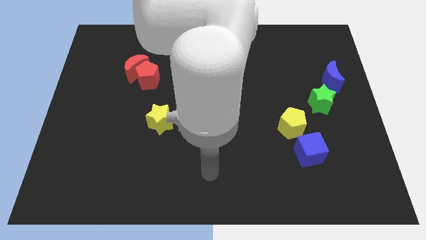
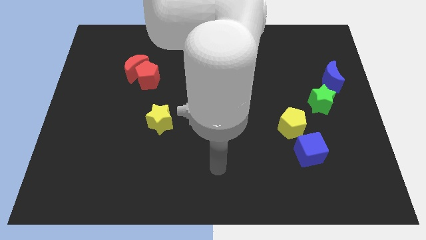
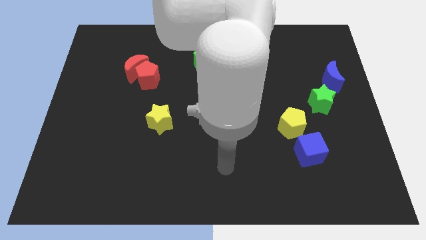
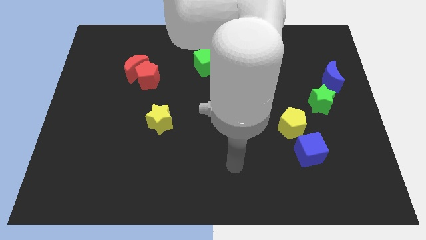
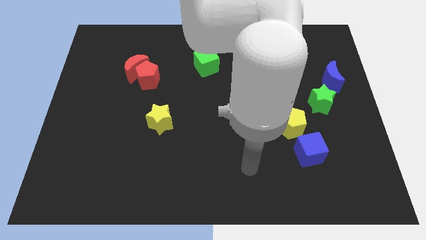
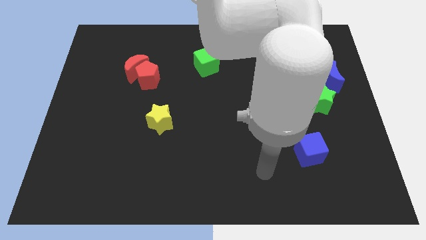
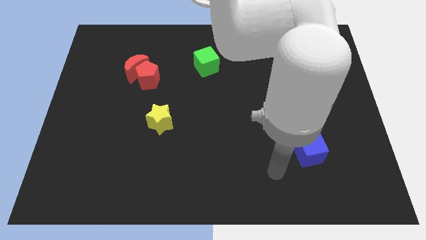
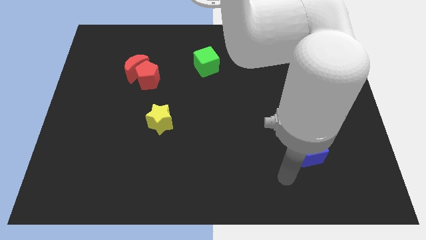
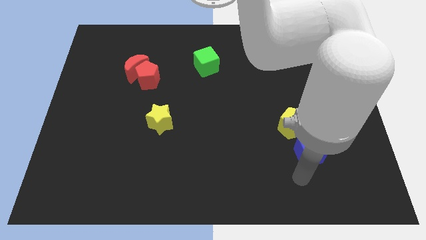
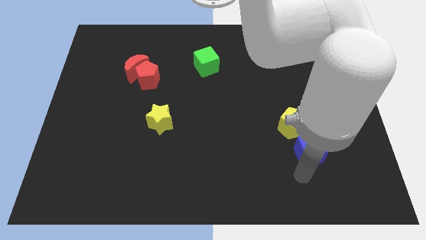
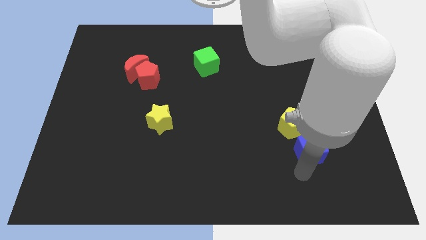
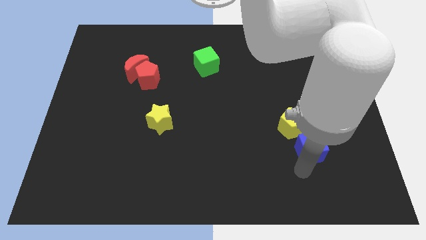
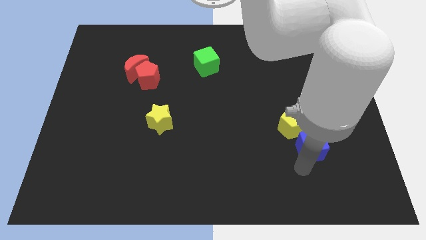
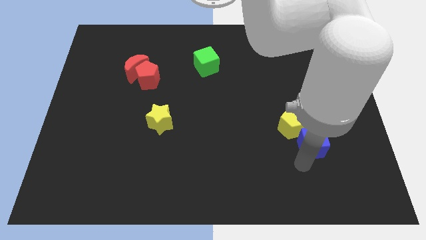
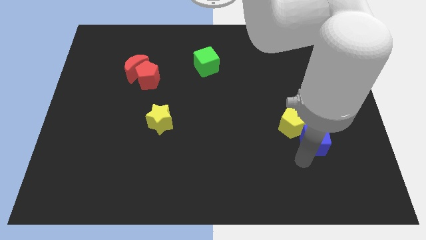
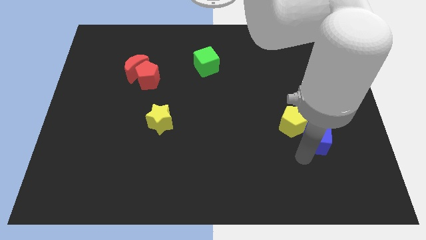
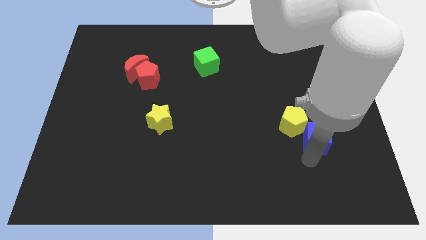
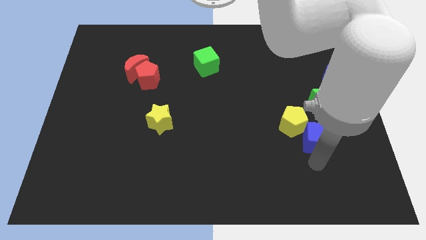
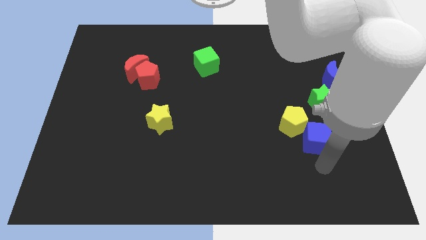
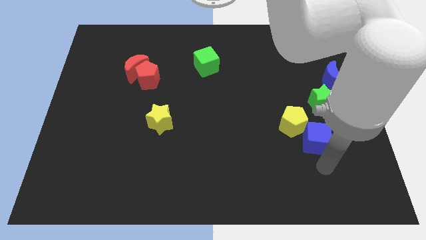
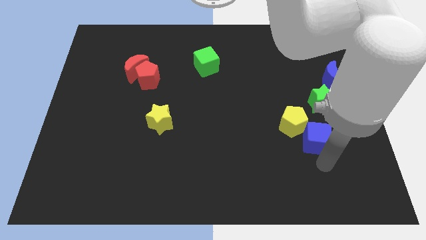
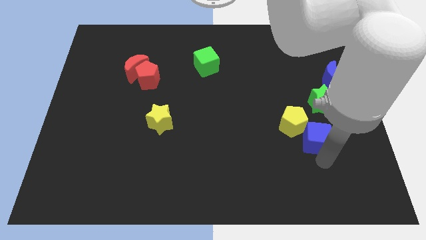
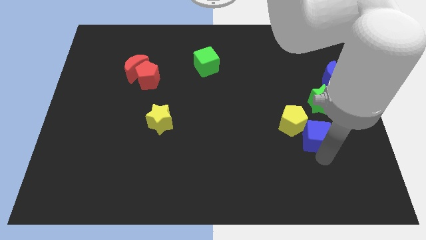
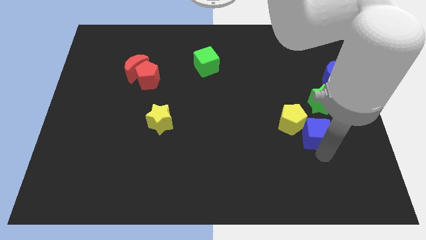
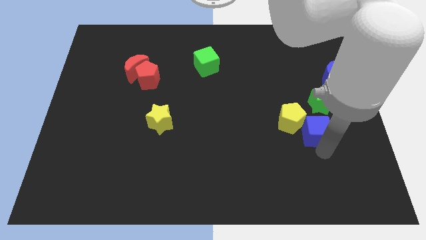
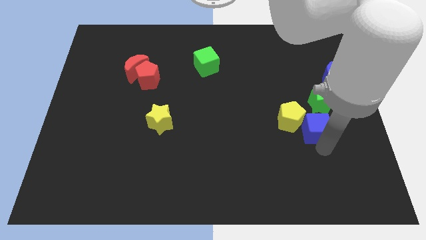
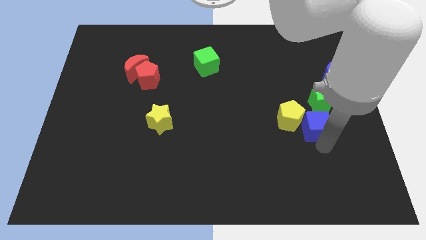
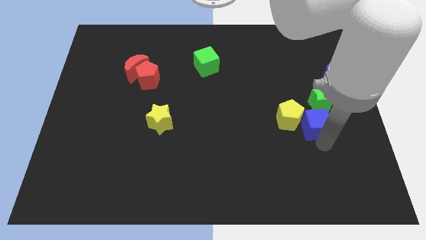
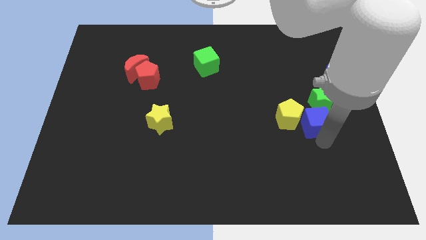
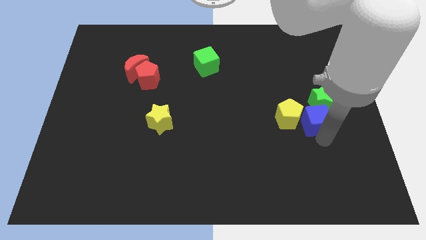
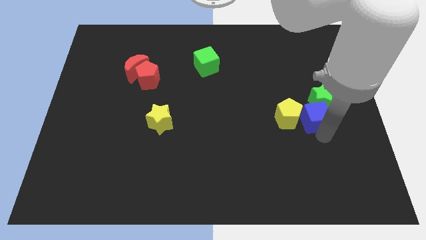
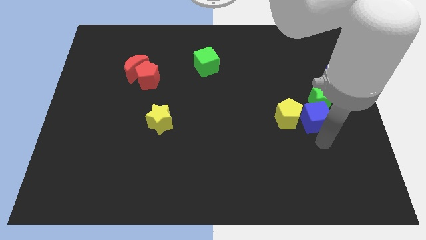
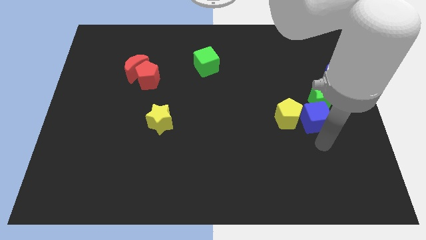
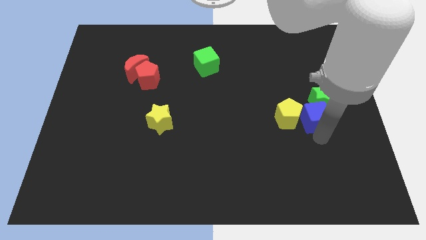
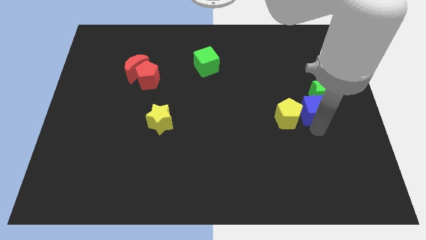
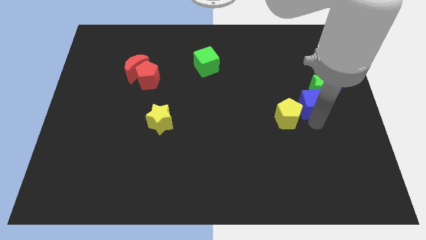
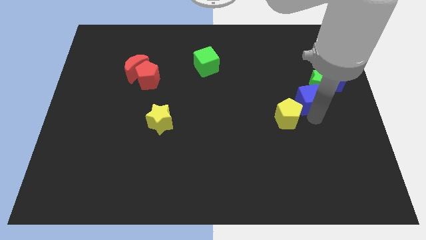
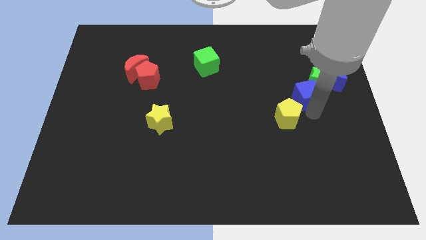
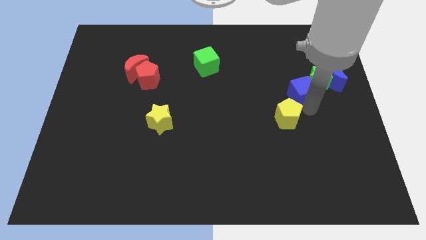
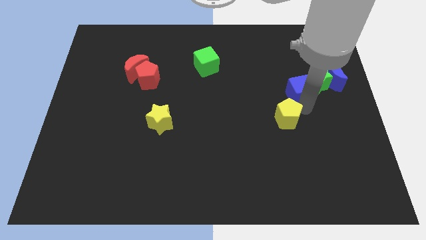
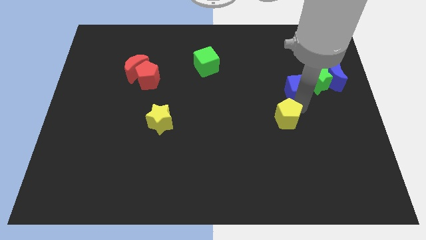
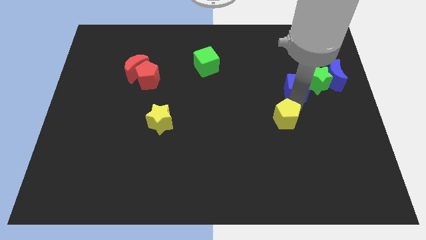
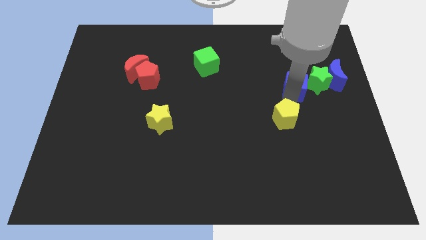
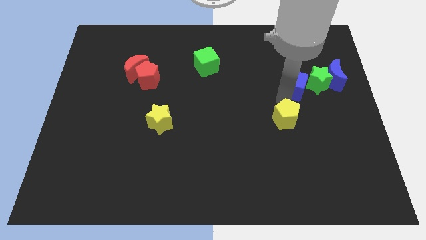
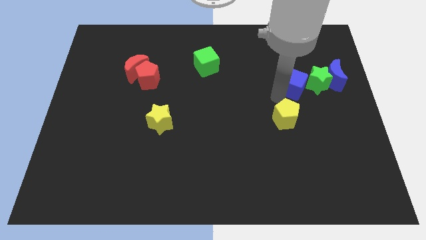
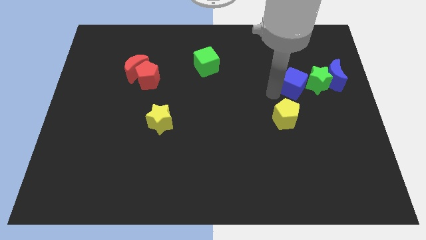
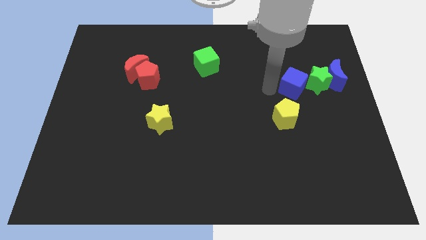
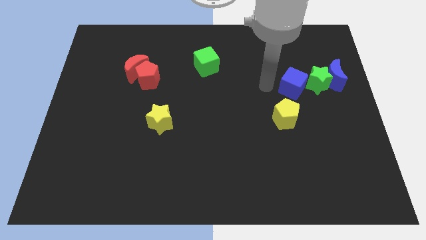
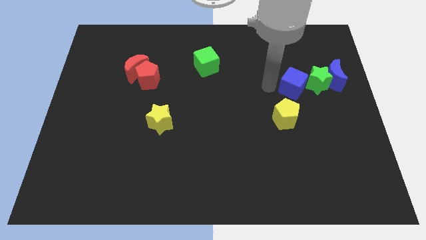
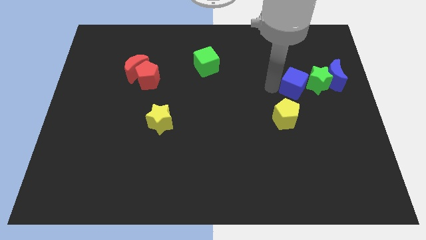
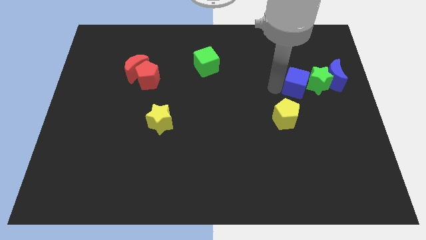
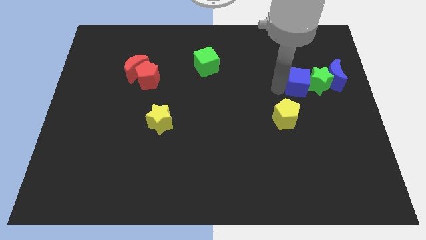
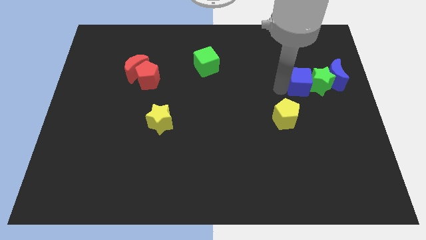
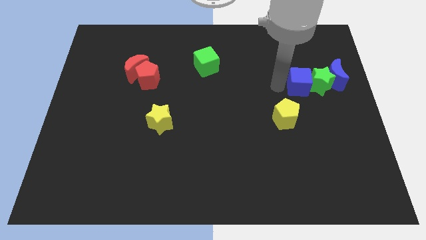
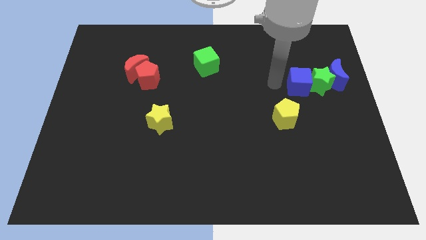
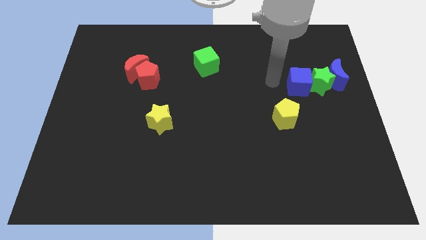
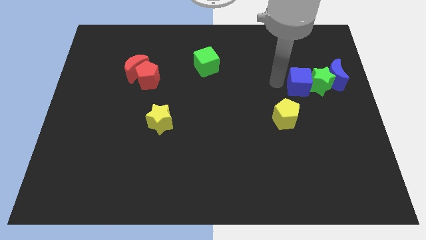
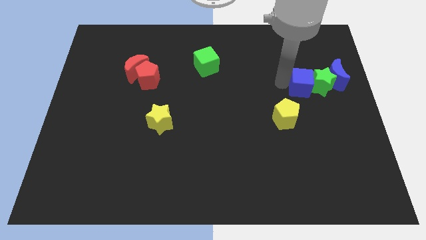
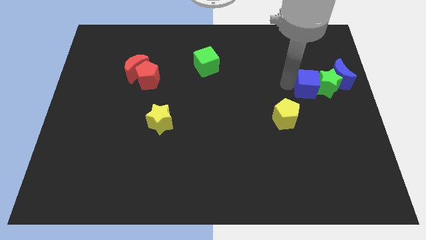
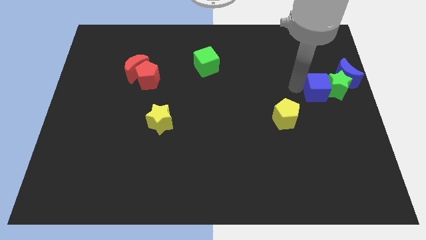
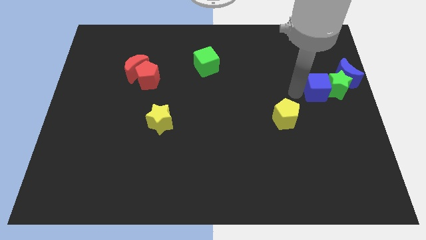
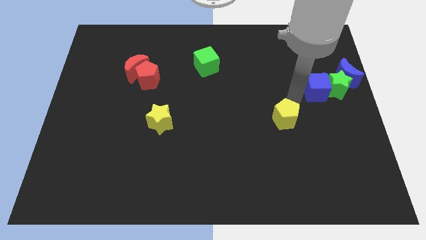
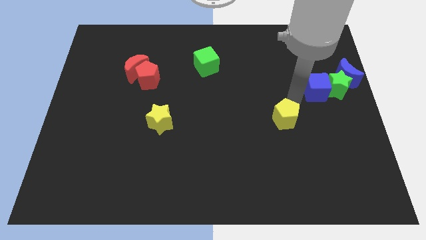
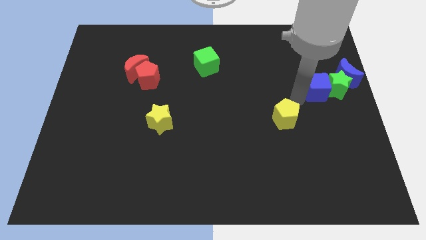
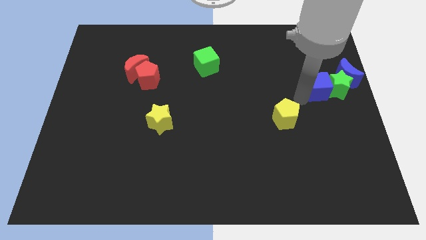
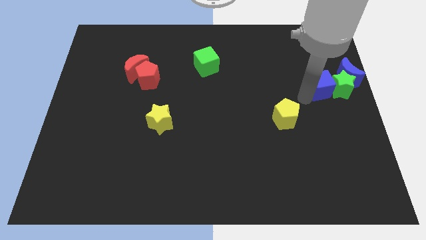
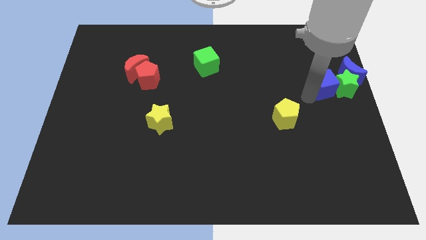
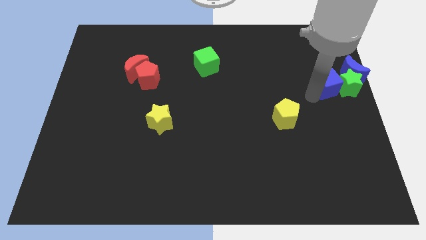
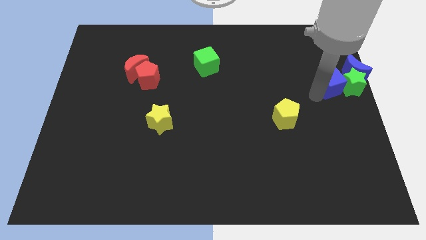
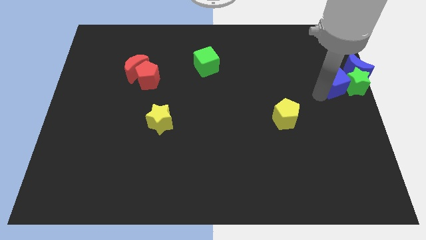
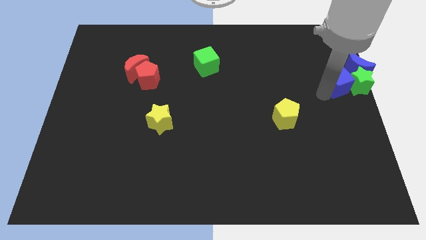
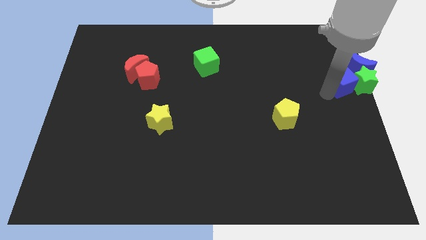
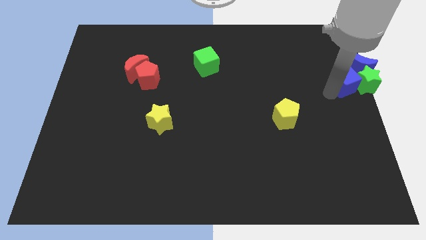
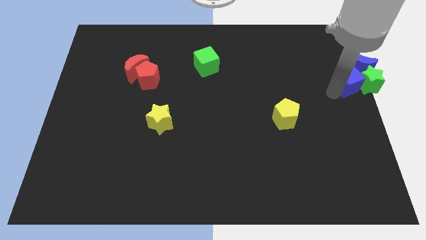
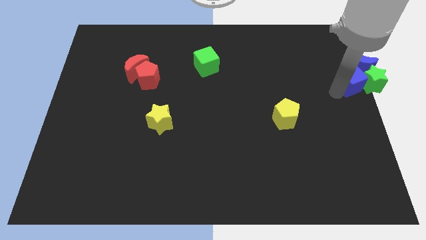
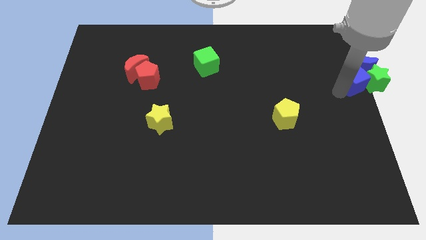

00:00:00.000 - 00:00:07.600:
push the blue cube next to the blue moon

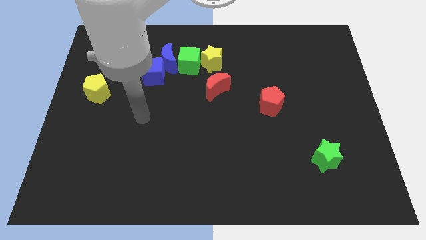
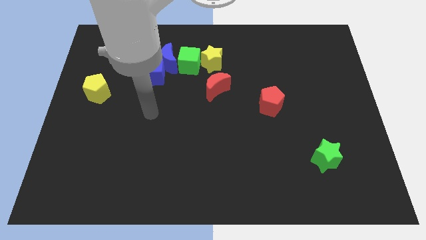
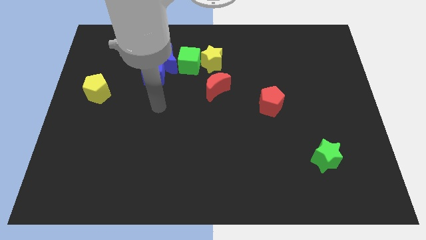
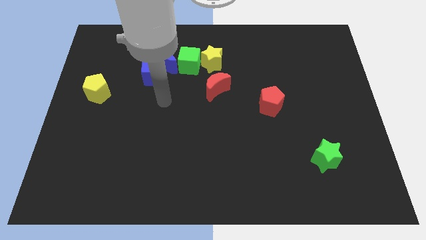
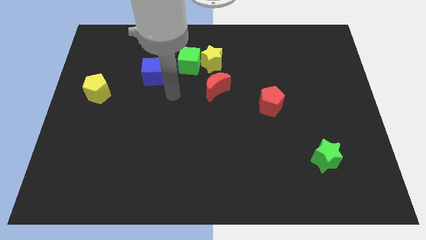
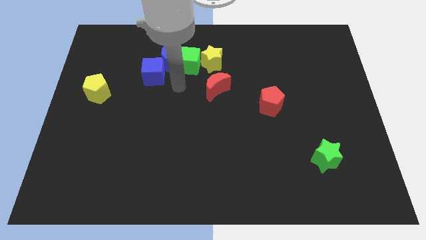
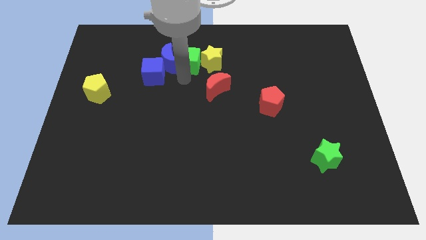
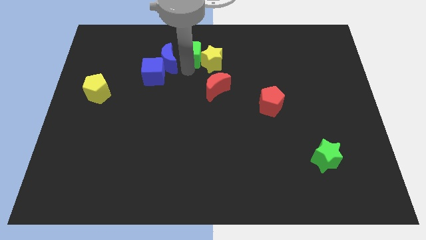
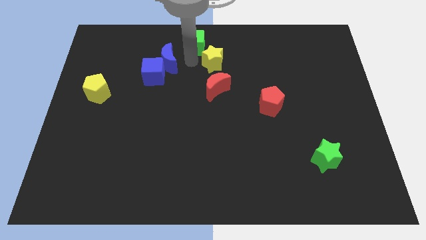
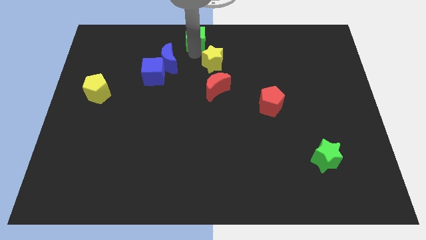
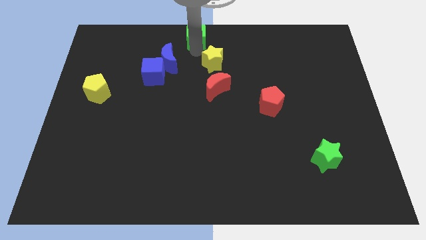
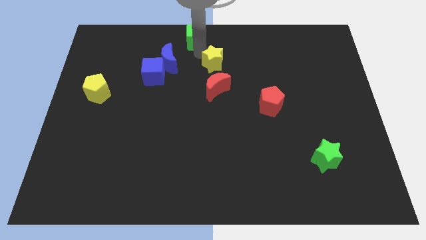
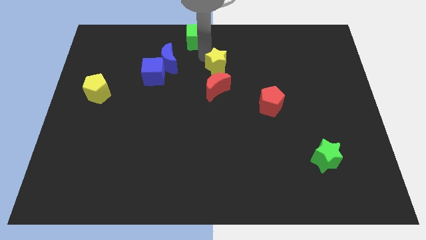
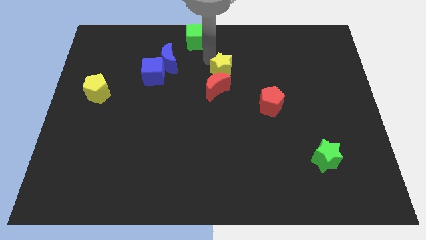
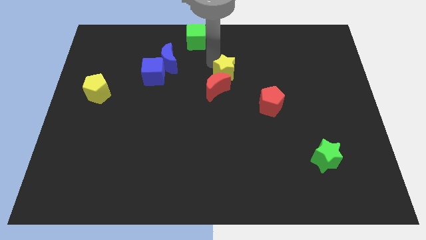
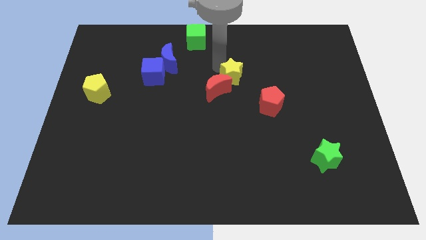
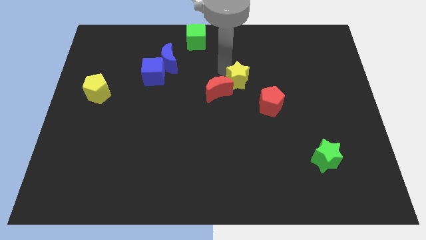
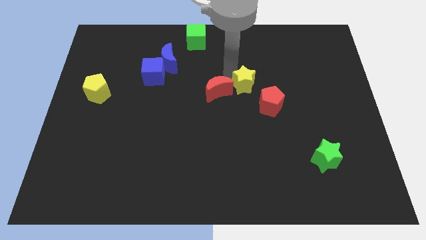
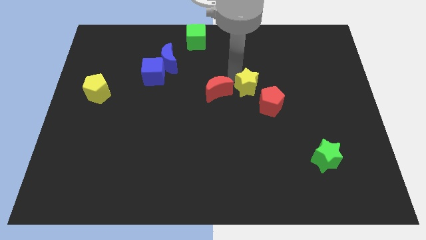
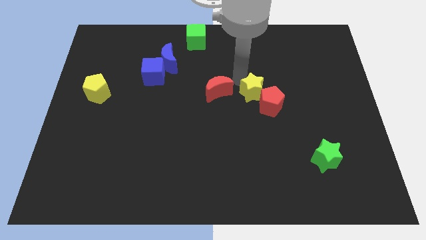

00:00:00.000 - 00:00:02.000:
put the yellow star next to the red pentagon
